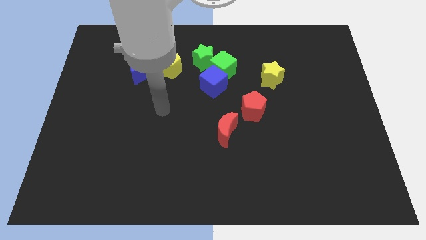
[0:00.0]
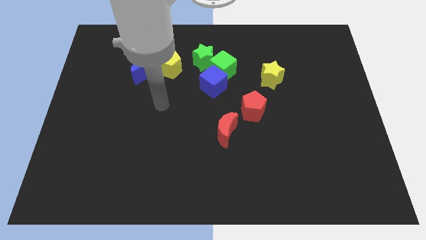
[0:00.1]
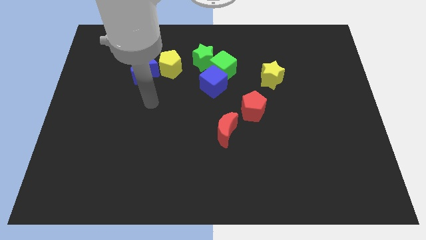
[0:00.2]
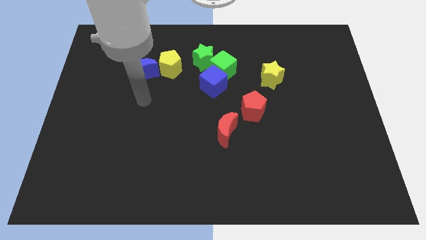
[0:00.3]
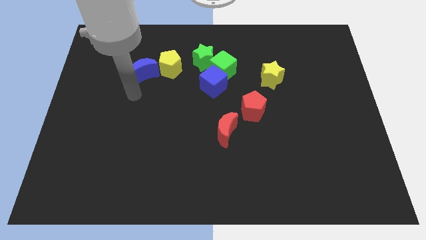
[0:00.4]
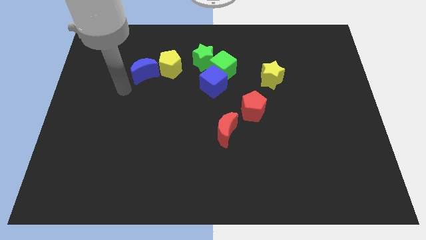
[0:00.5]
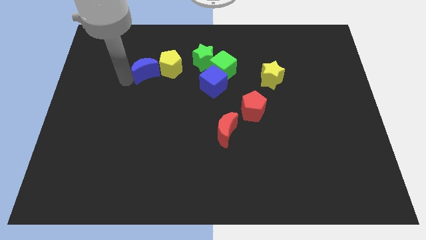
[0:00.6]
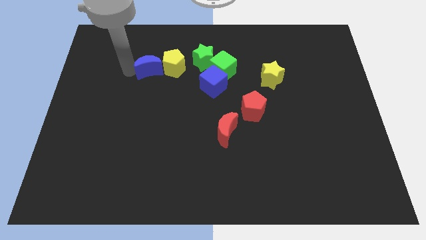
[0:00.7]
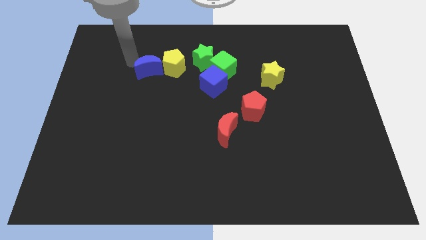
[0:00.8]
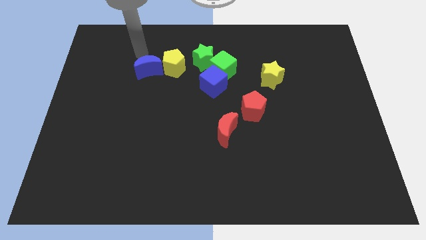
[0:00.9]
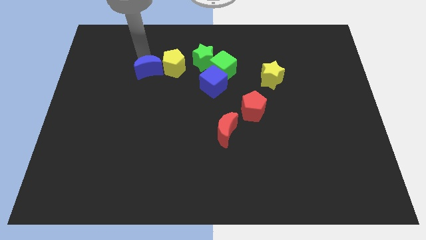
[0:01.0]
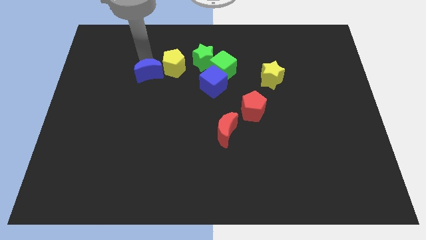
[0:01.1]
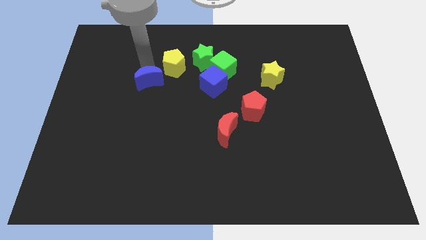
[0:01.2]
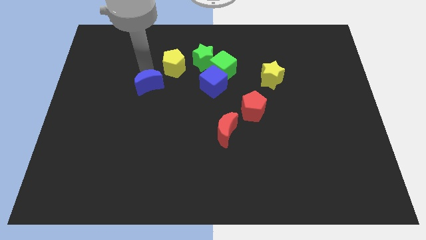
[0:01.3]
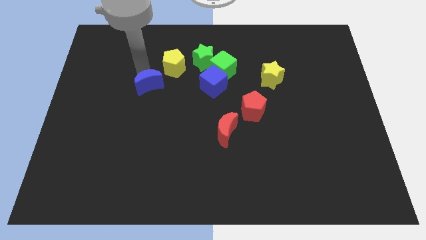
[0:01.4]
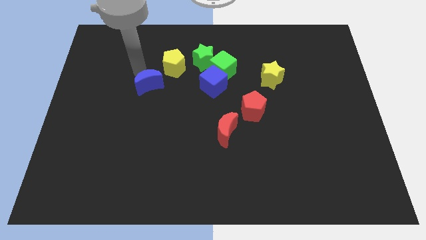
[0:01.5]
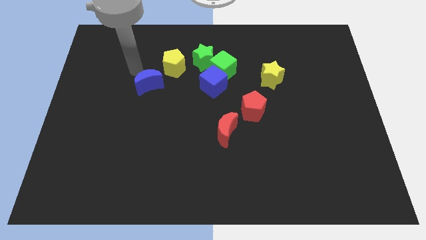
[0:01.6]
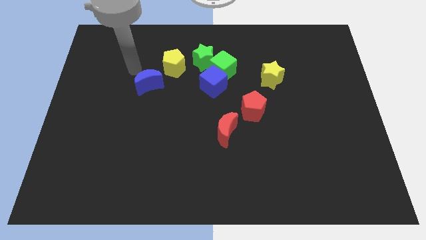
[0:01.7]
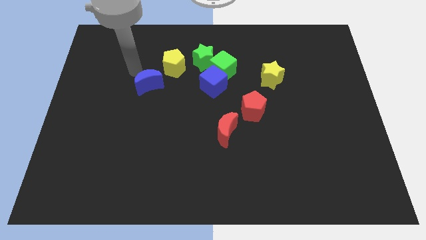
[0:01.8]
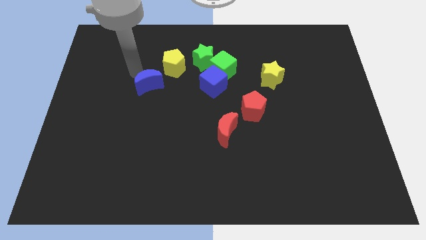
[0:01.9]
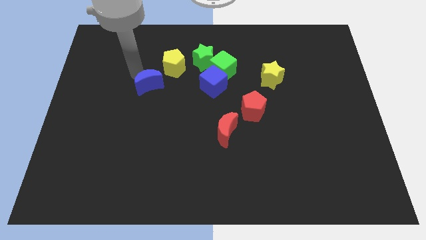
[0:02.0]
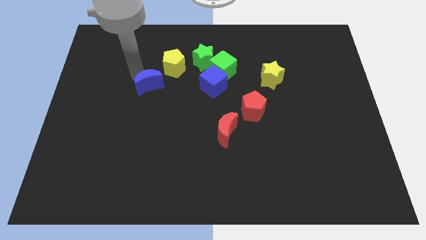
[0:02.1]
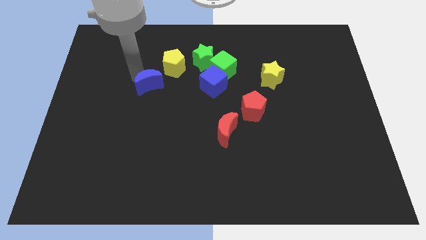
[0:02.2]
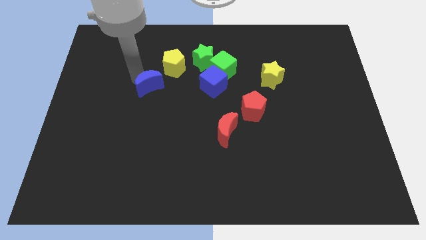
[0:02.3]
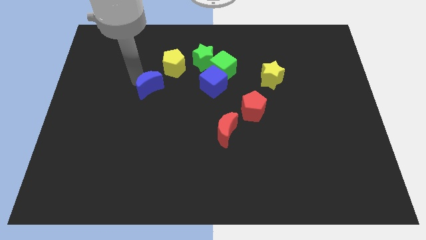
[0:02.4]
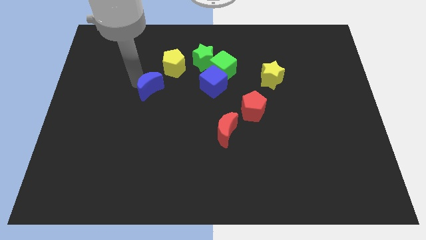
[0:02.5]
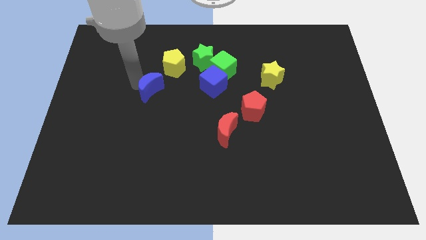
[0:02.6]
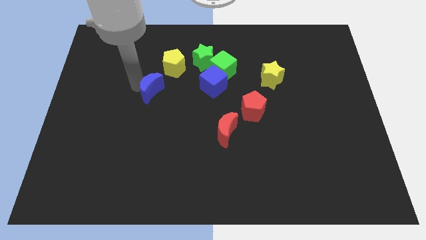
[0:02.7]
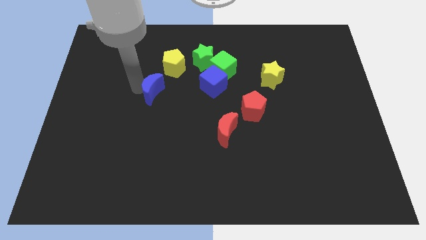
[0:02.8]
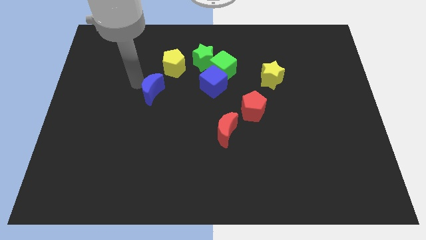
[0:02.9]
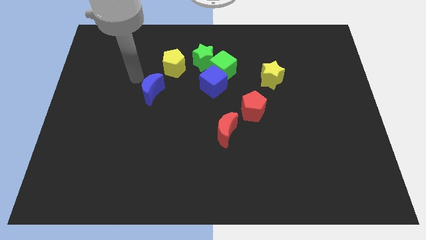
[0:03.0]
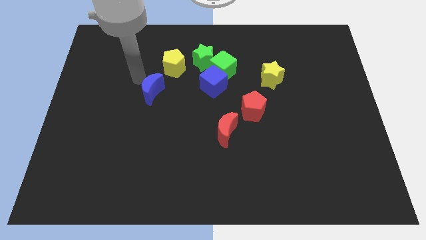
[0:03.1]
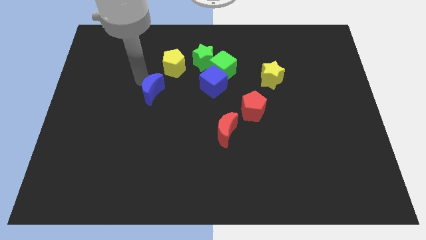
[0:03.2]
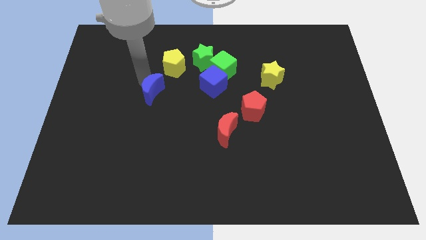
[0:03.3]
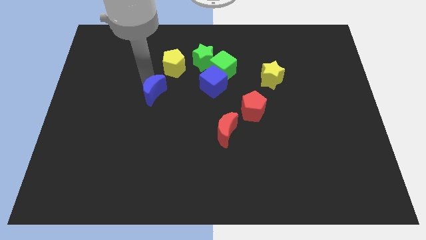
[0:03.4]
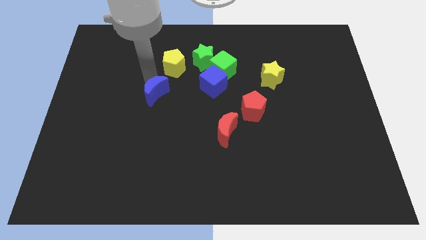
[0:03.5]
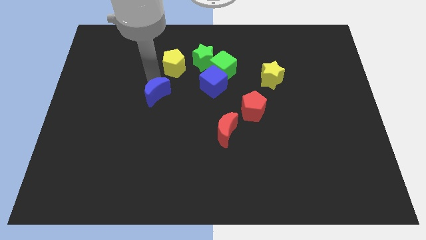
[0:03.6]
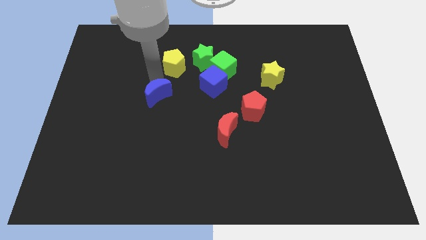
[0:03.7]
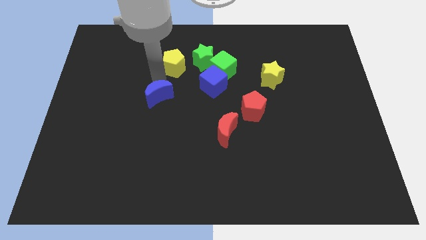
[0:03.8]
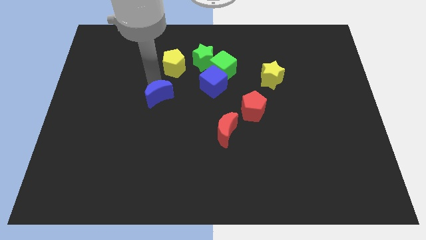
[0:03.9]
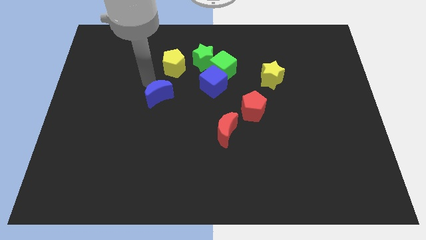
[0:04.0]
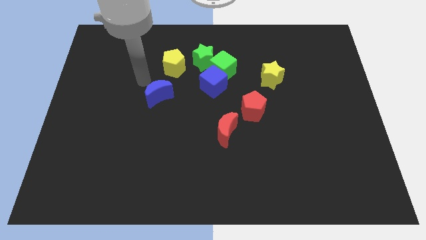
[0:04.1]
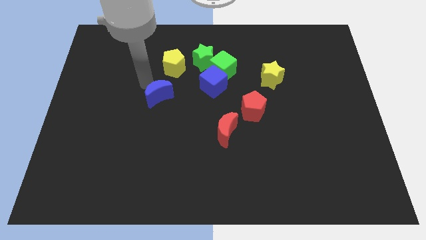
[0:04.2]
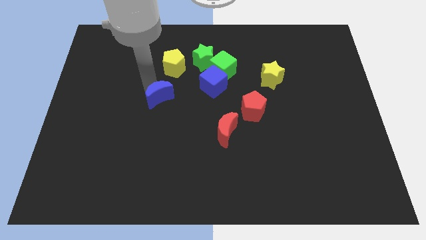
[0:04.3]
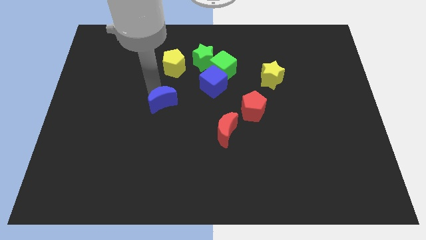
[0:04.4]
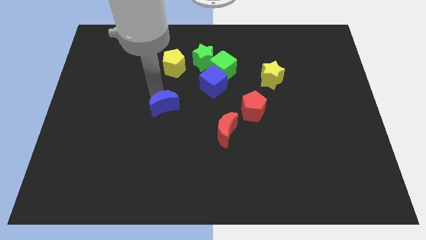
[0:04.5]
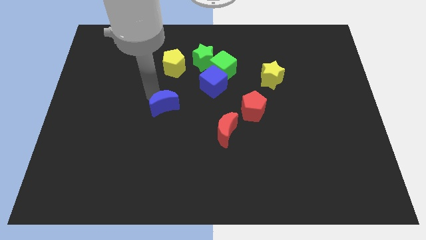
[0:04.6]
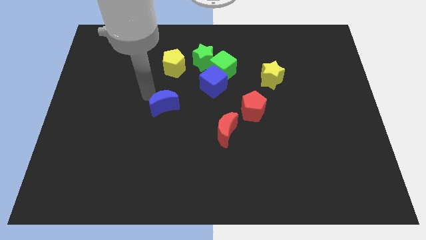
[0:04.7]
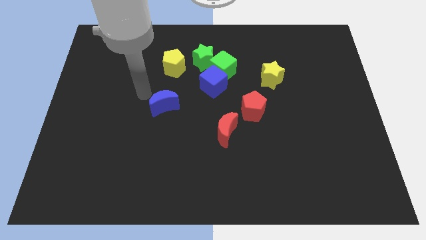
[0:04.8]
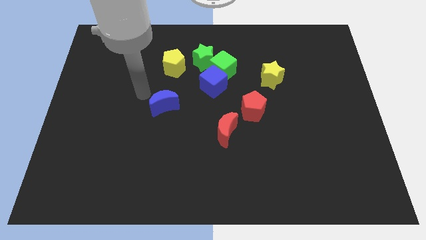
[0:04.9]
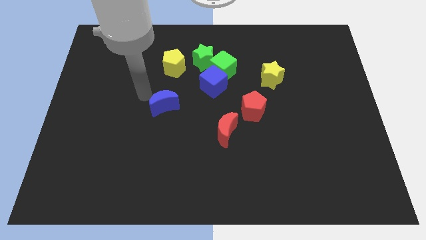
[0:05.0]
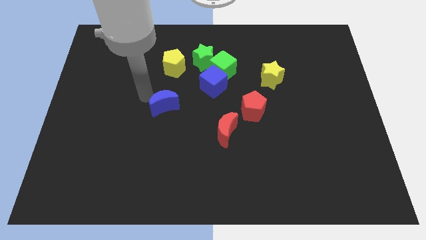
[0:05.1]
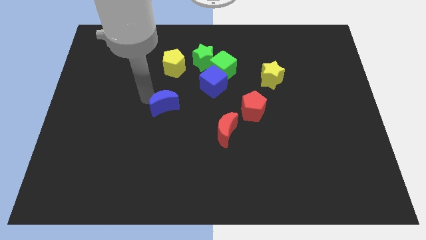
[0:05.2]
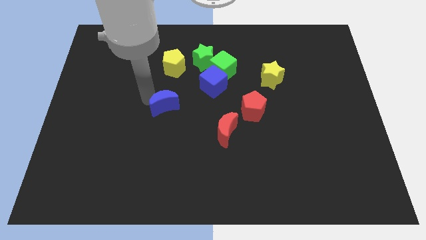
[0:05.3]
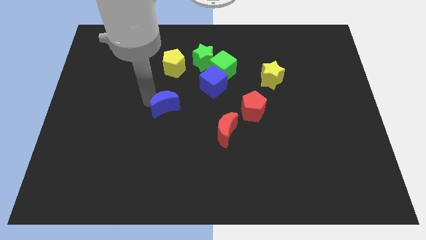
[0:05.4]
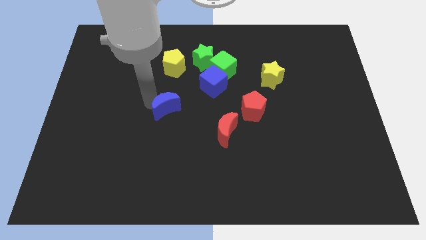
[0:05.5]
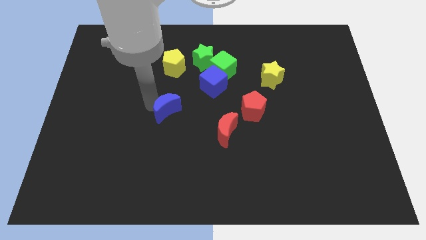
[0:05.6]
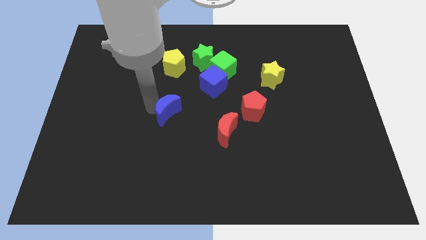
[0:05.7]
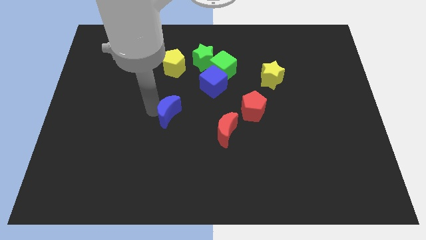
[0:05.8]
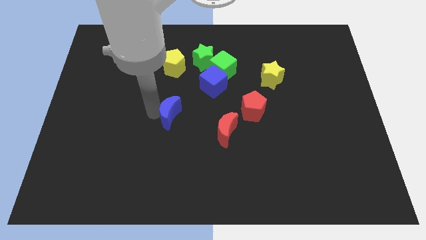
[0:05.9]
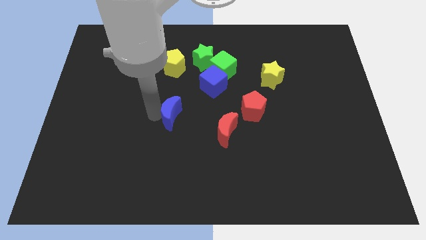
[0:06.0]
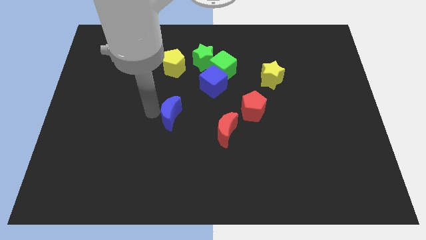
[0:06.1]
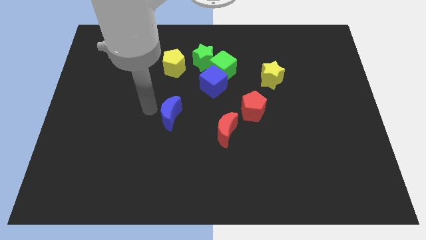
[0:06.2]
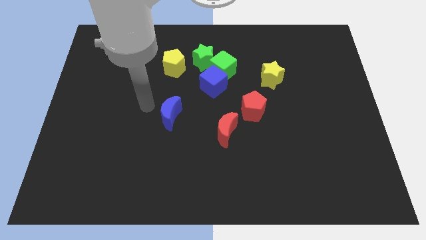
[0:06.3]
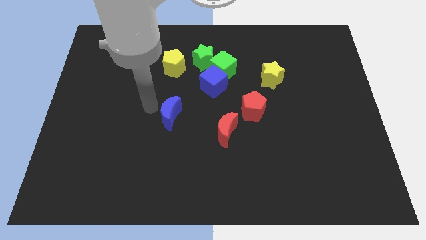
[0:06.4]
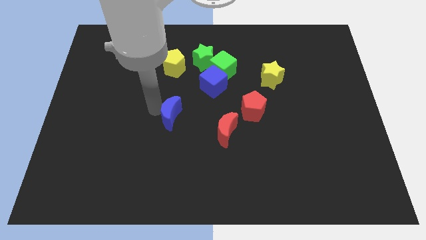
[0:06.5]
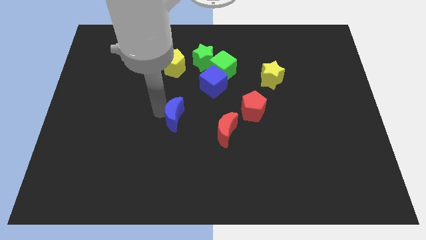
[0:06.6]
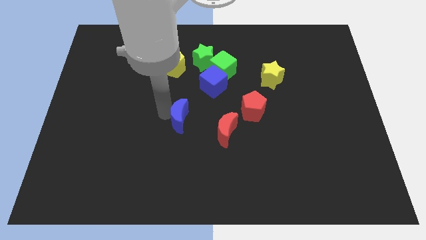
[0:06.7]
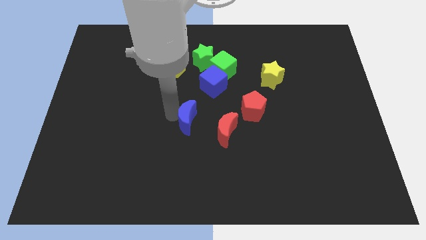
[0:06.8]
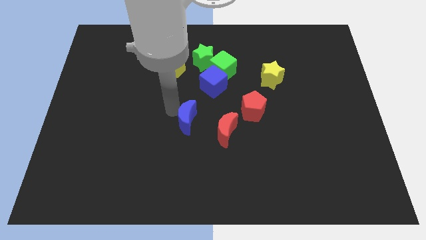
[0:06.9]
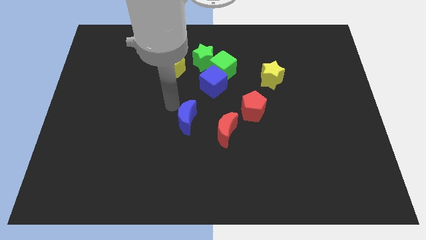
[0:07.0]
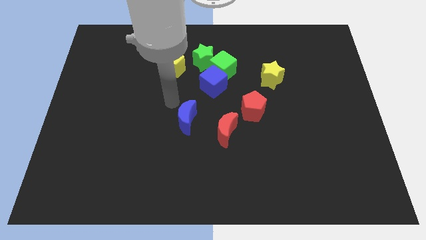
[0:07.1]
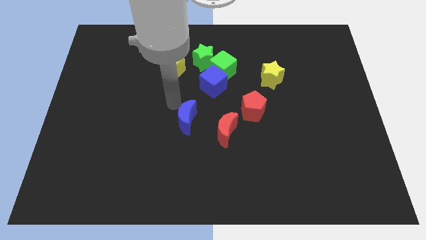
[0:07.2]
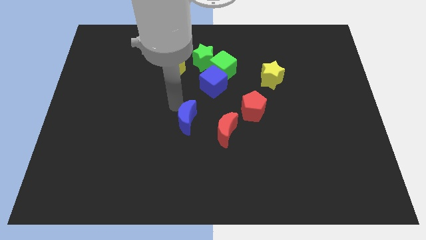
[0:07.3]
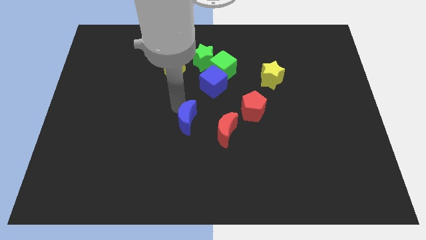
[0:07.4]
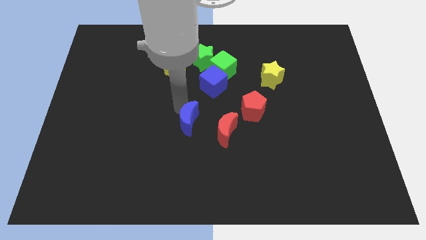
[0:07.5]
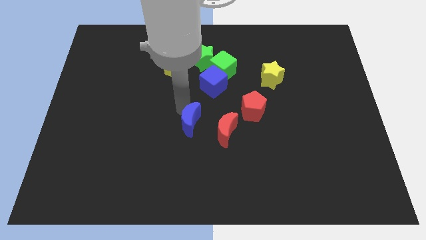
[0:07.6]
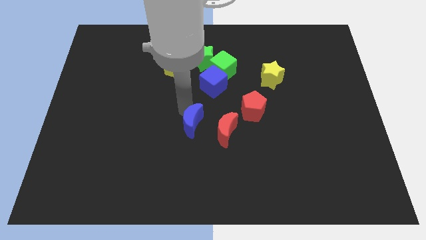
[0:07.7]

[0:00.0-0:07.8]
slide the blue moon down and to the right

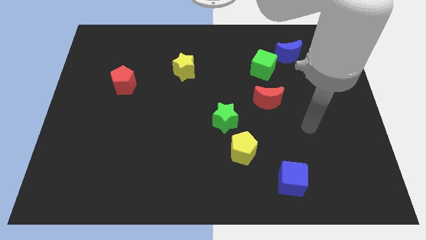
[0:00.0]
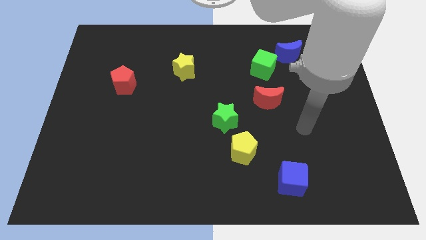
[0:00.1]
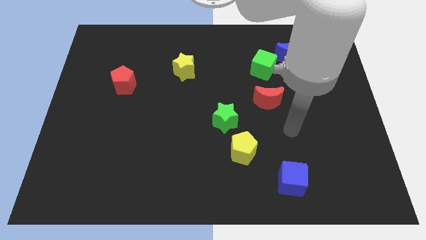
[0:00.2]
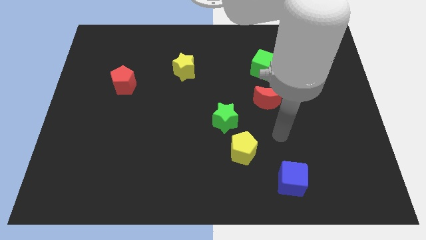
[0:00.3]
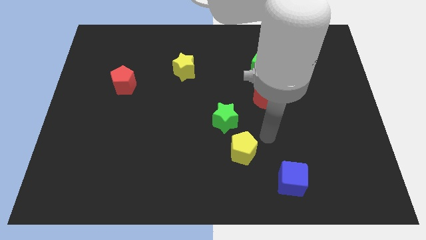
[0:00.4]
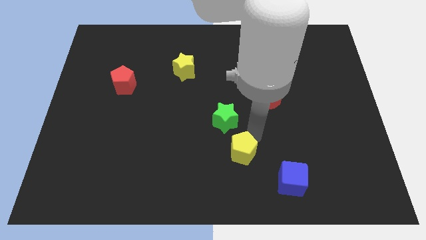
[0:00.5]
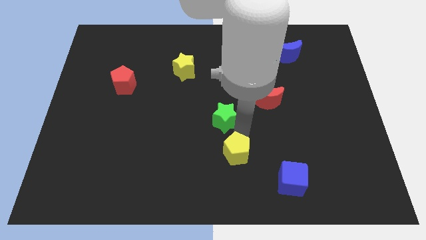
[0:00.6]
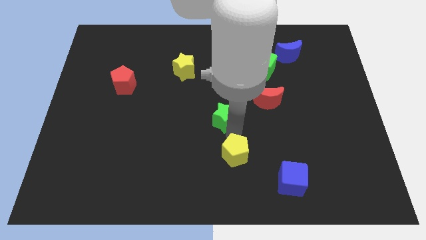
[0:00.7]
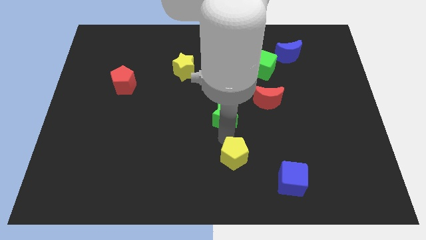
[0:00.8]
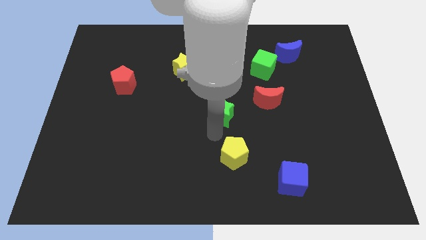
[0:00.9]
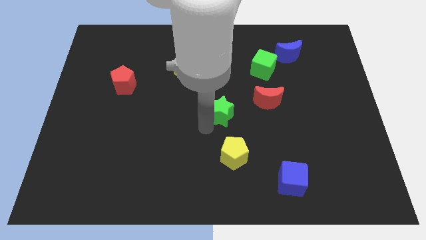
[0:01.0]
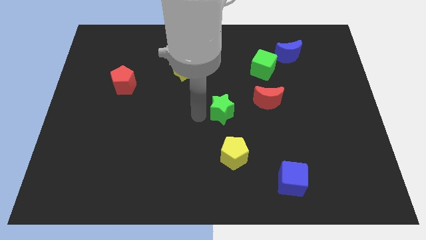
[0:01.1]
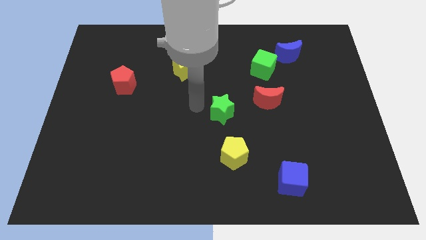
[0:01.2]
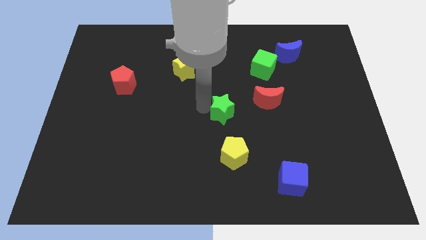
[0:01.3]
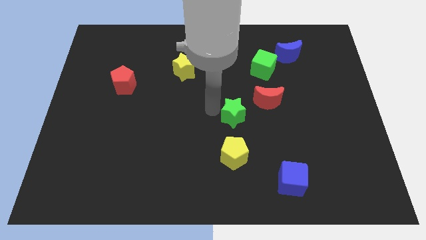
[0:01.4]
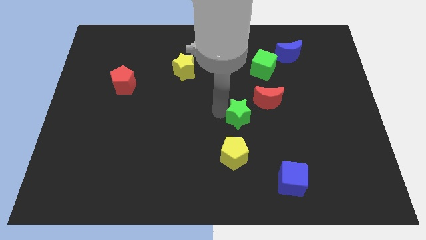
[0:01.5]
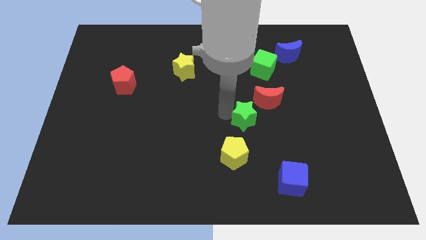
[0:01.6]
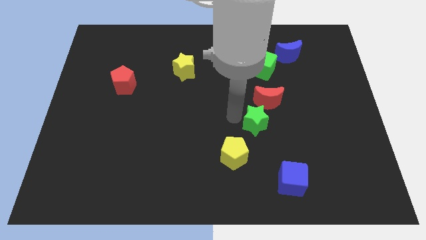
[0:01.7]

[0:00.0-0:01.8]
move the green star to the right slightly
